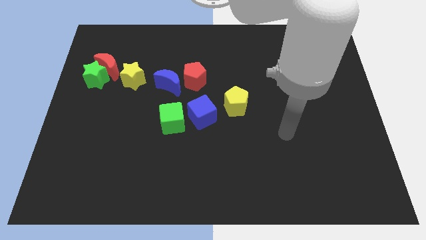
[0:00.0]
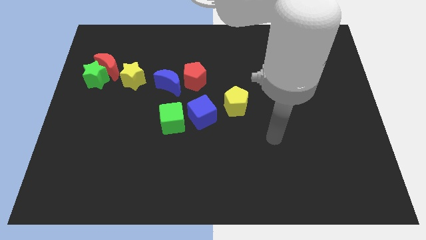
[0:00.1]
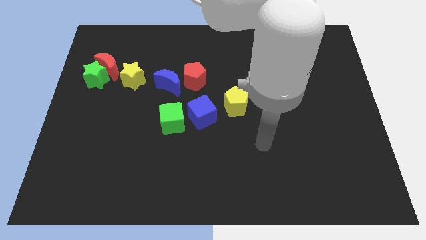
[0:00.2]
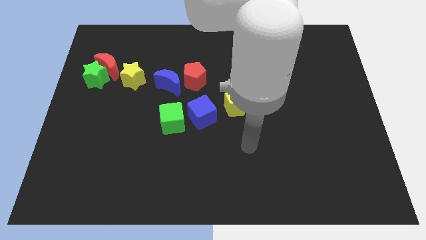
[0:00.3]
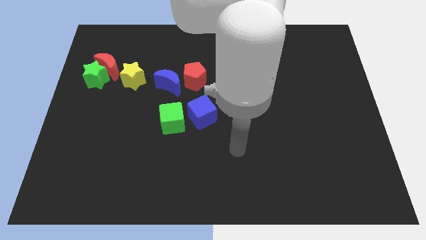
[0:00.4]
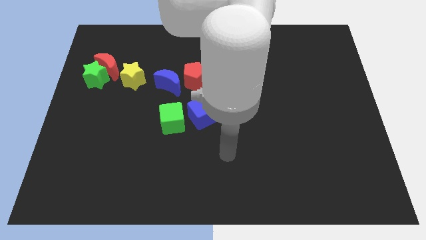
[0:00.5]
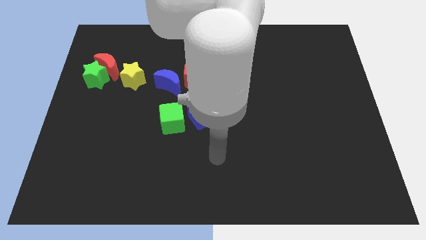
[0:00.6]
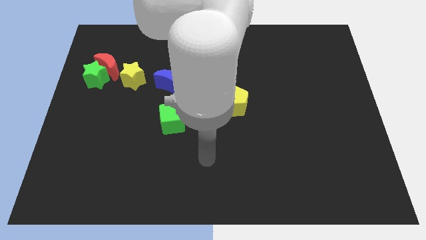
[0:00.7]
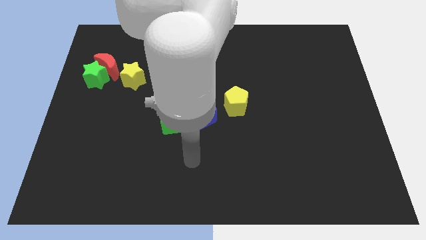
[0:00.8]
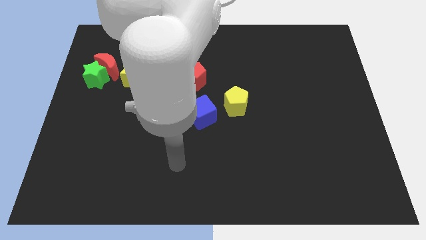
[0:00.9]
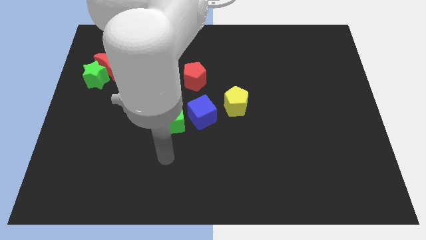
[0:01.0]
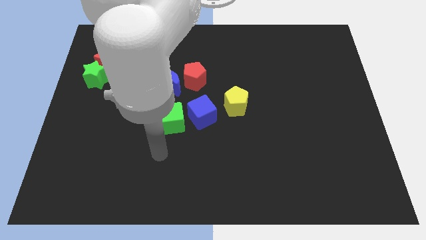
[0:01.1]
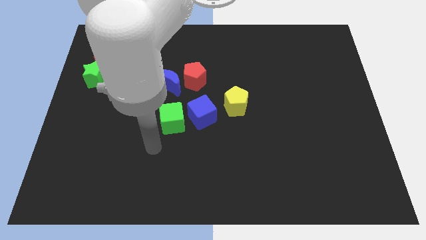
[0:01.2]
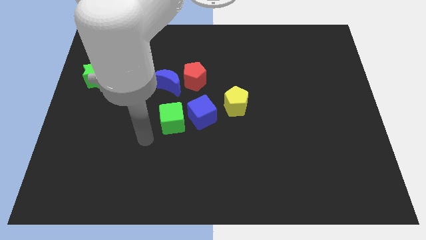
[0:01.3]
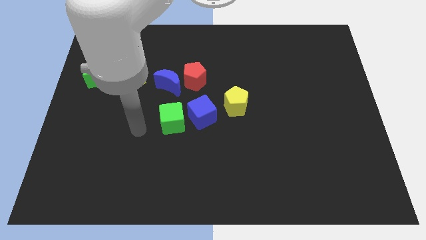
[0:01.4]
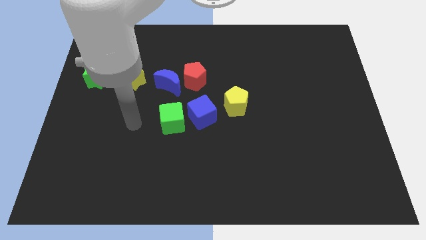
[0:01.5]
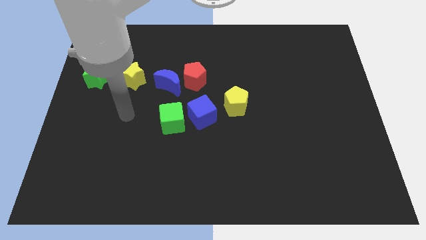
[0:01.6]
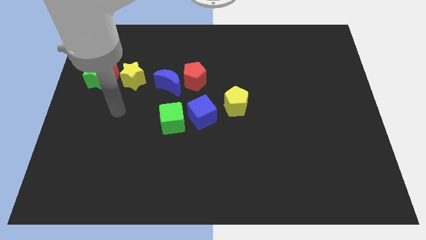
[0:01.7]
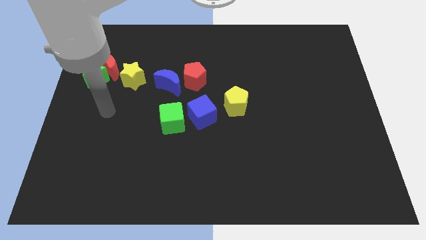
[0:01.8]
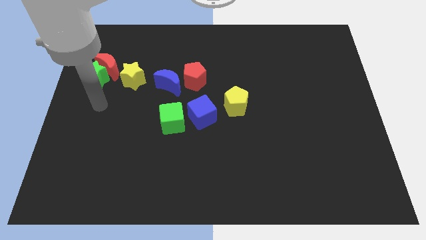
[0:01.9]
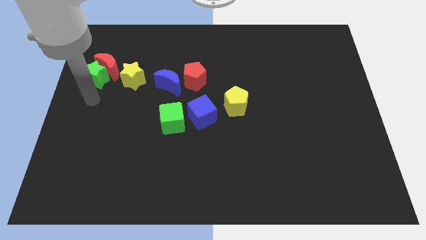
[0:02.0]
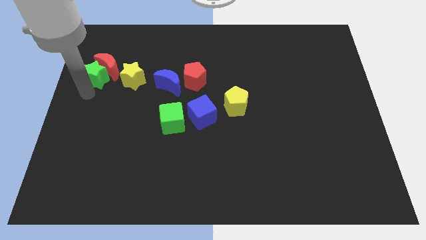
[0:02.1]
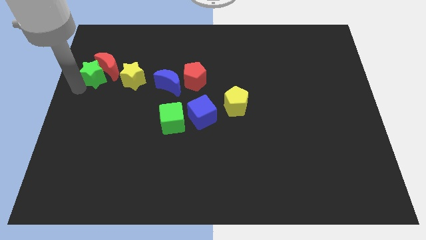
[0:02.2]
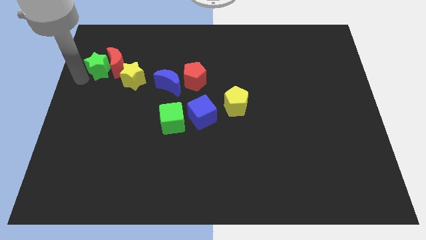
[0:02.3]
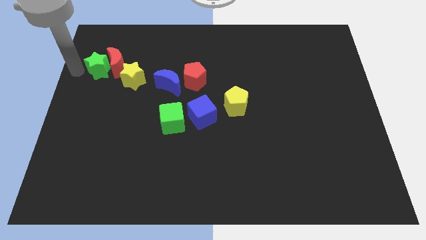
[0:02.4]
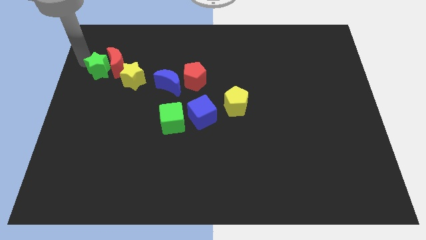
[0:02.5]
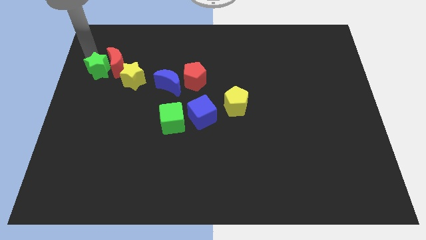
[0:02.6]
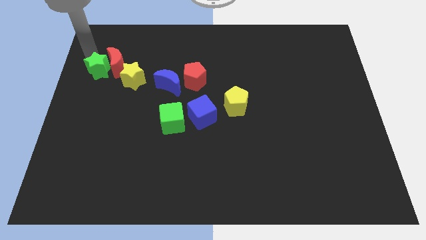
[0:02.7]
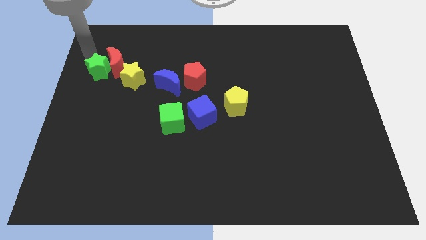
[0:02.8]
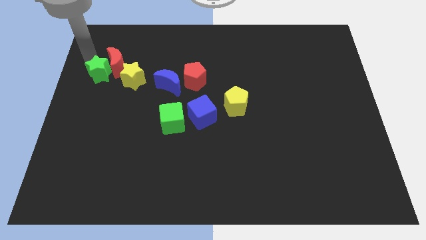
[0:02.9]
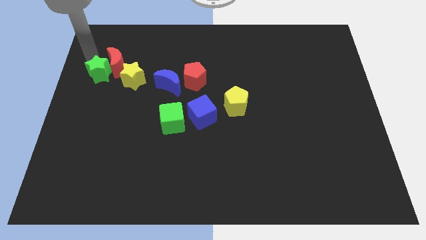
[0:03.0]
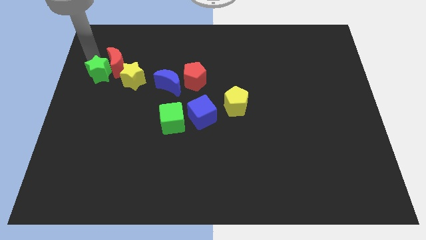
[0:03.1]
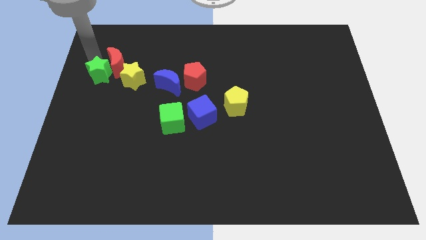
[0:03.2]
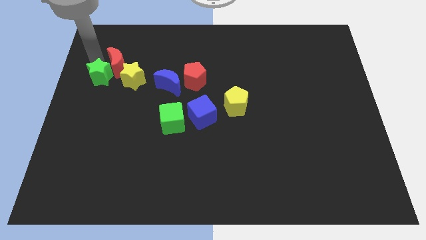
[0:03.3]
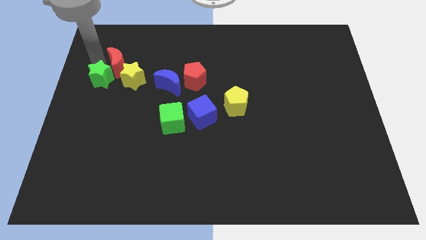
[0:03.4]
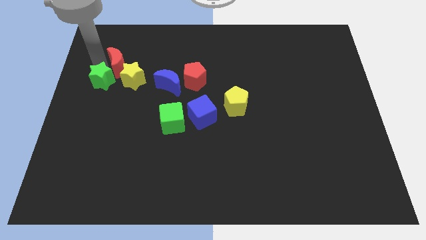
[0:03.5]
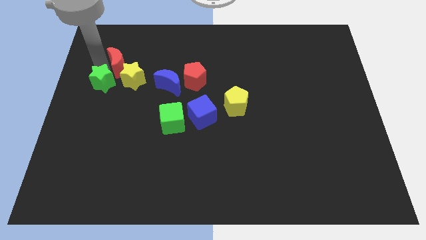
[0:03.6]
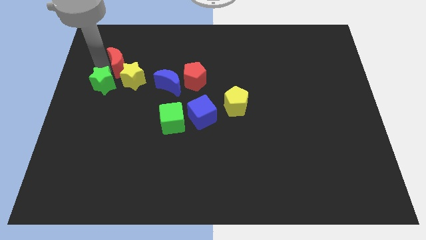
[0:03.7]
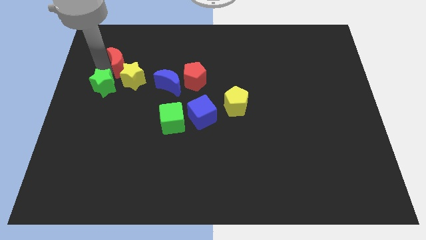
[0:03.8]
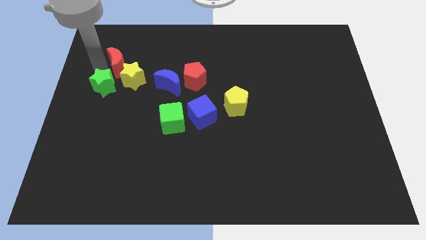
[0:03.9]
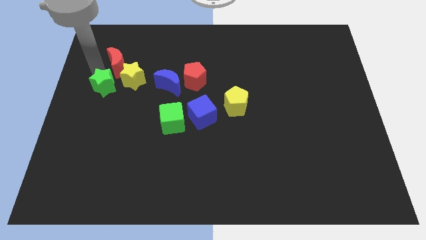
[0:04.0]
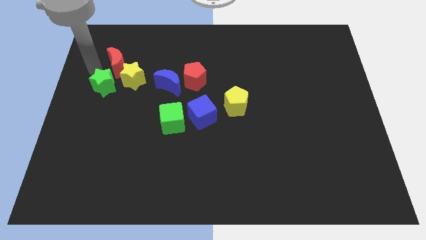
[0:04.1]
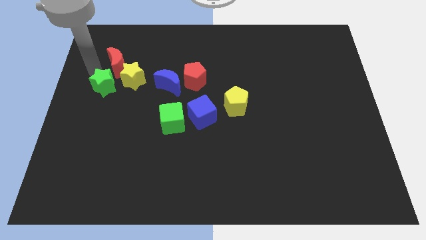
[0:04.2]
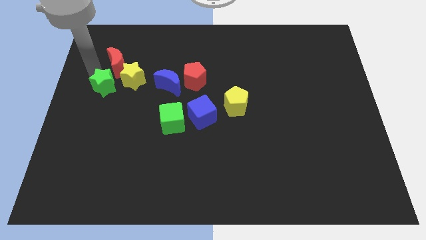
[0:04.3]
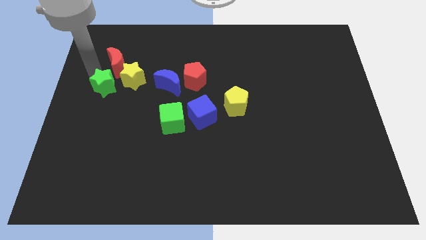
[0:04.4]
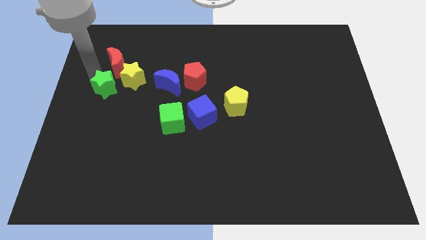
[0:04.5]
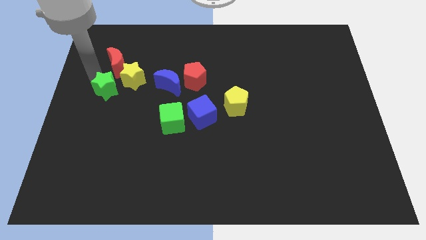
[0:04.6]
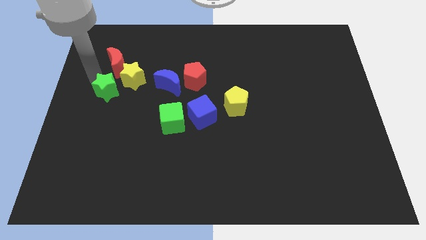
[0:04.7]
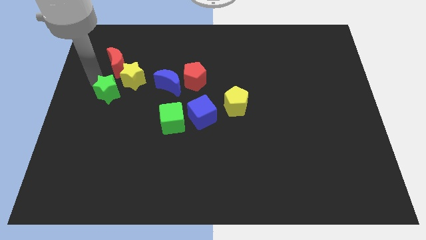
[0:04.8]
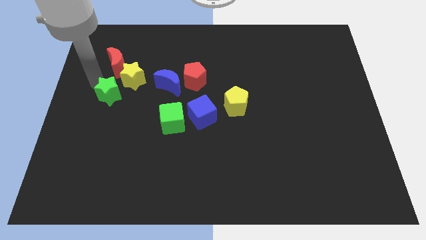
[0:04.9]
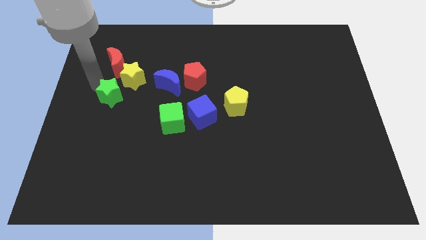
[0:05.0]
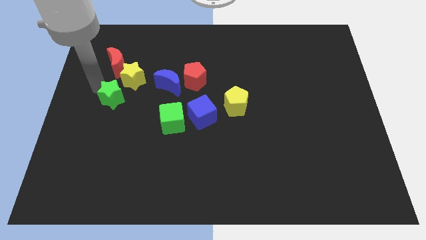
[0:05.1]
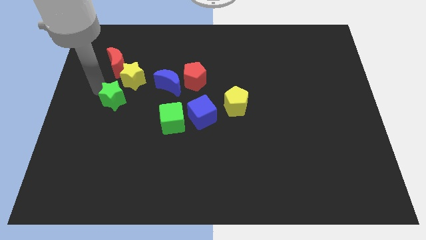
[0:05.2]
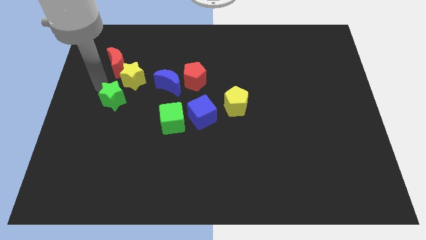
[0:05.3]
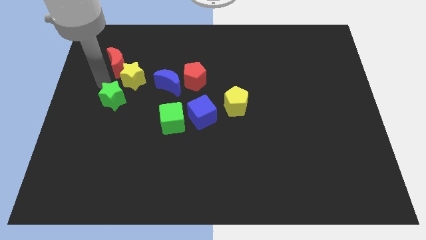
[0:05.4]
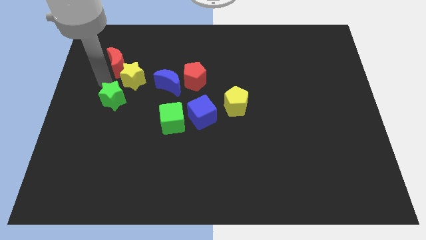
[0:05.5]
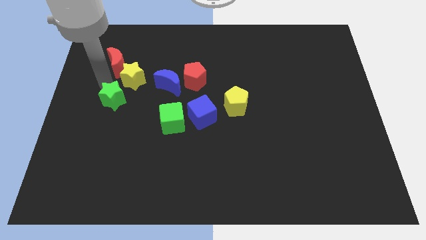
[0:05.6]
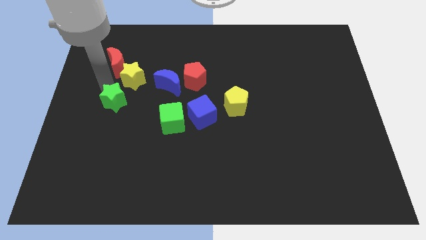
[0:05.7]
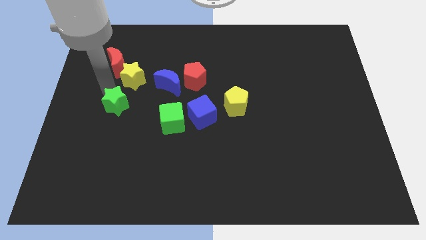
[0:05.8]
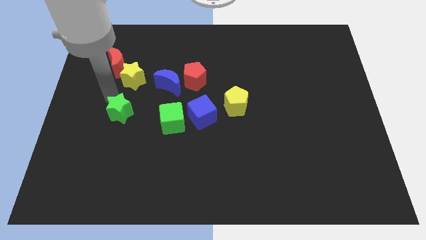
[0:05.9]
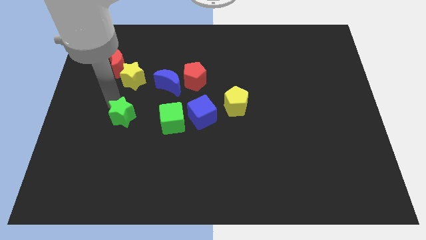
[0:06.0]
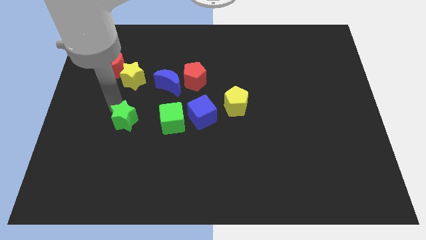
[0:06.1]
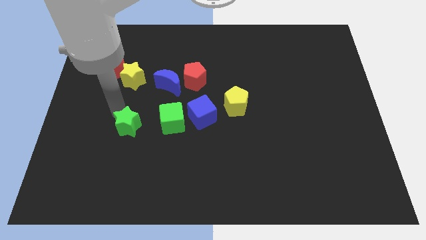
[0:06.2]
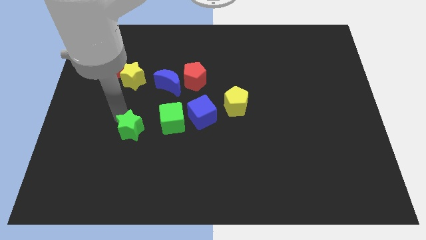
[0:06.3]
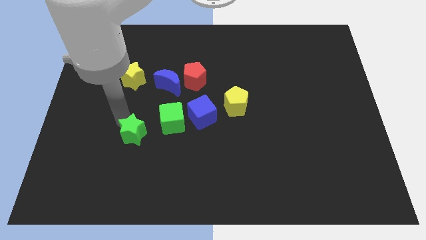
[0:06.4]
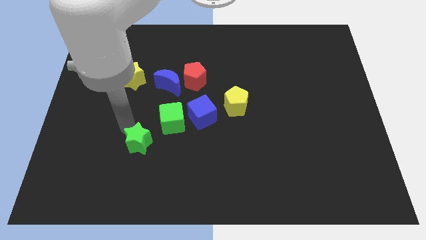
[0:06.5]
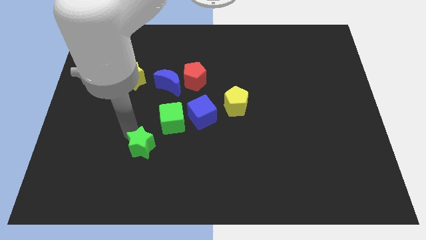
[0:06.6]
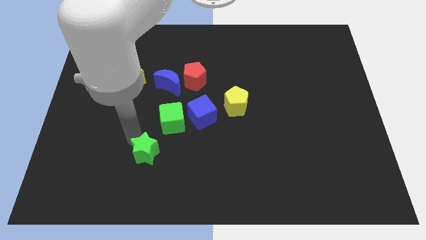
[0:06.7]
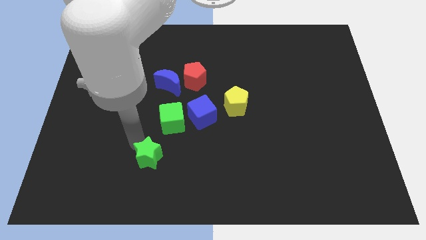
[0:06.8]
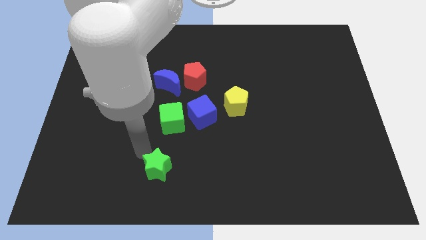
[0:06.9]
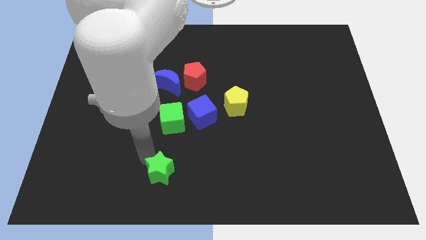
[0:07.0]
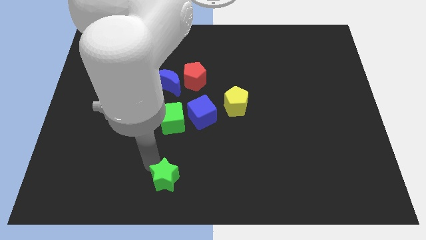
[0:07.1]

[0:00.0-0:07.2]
put the green star to the bottom
